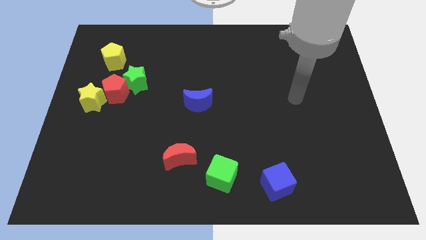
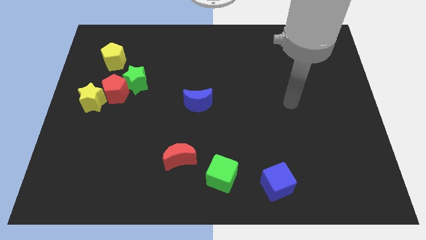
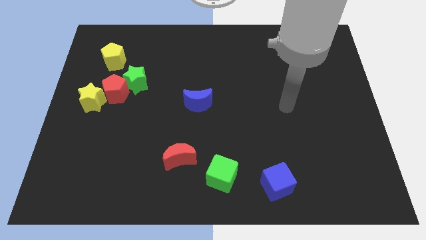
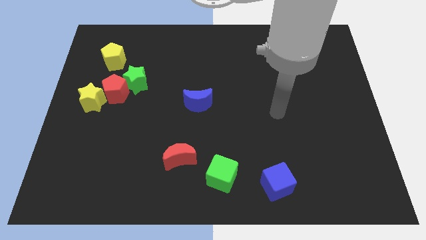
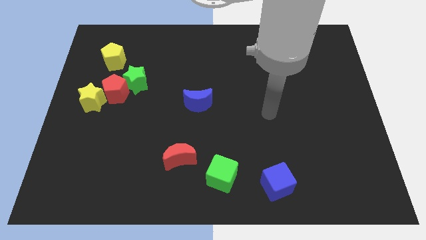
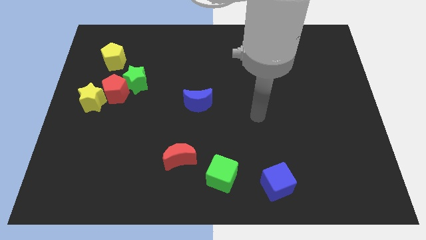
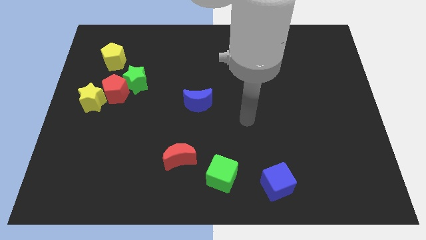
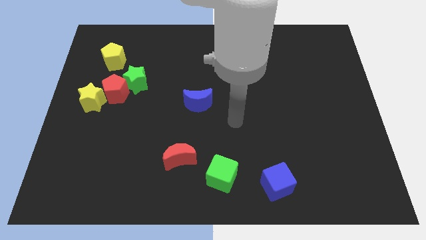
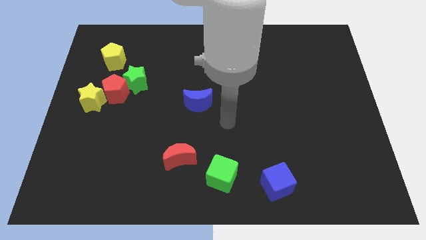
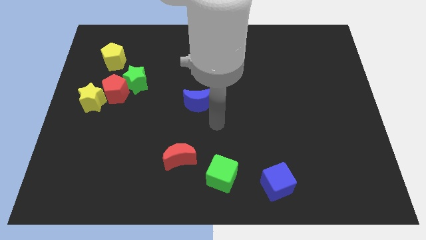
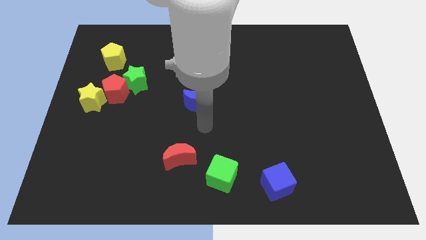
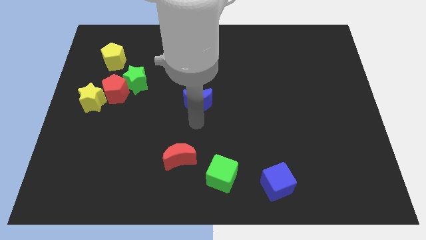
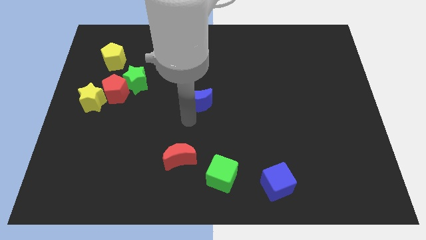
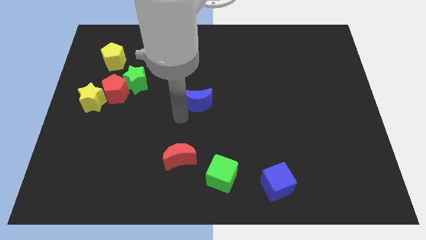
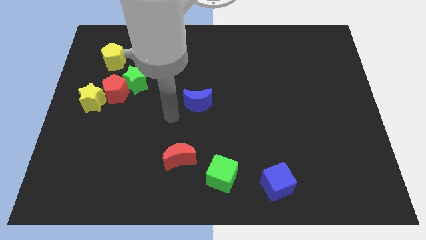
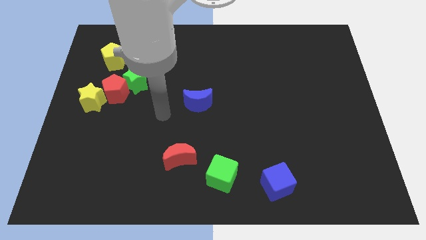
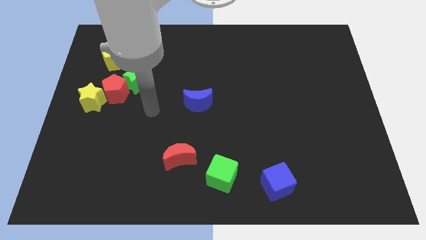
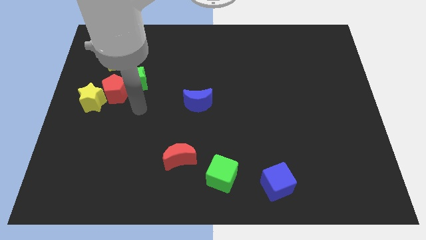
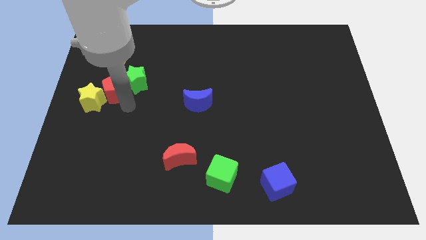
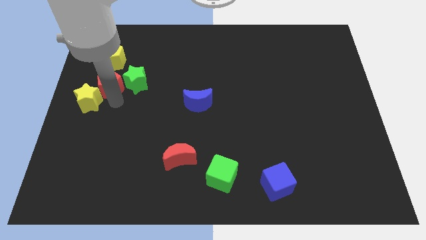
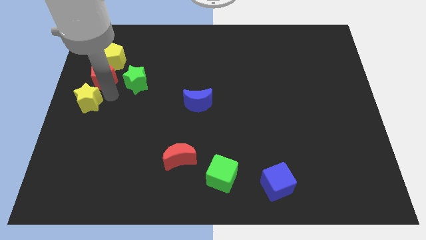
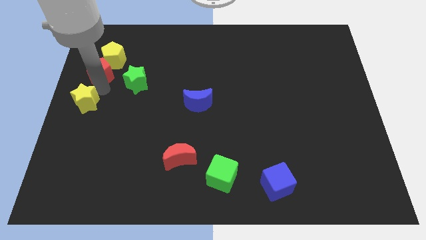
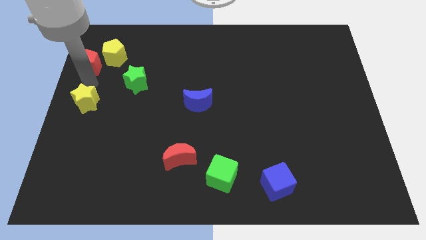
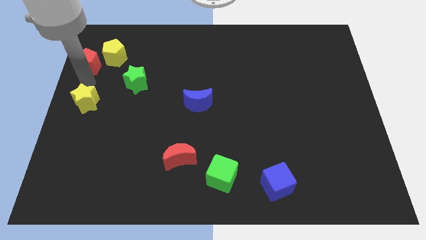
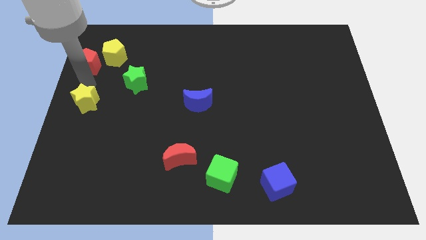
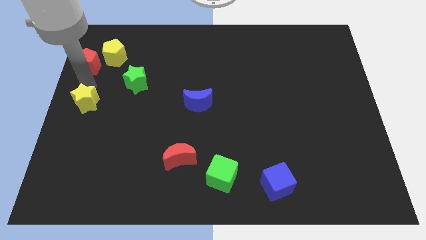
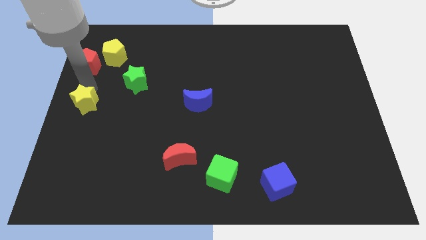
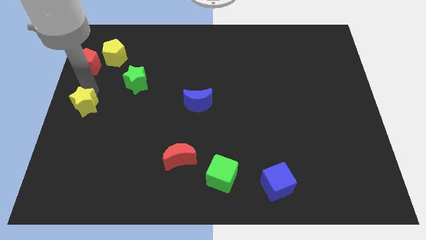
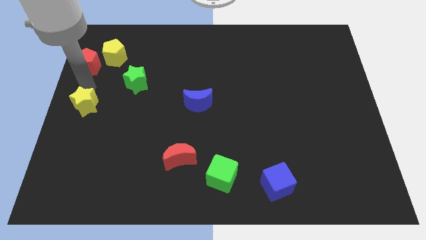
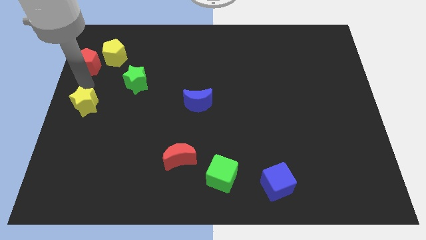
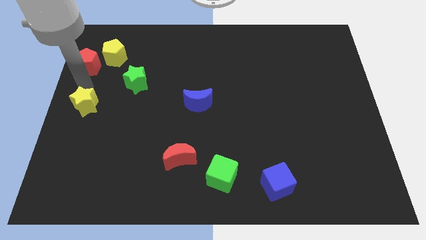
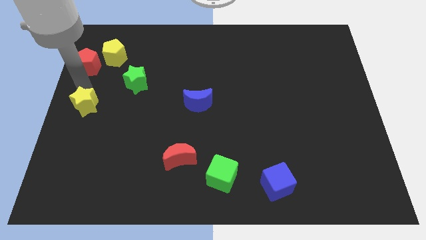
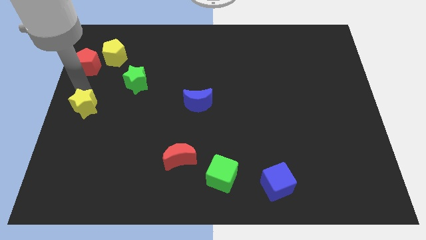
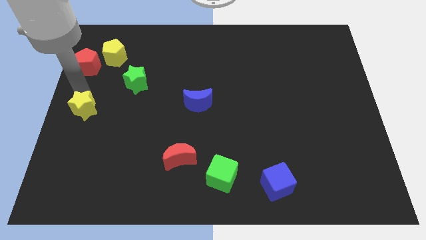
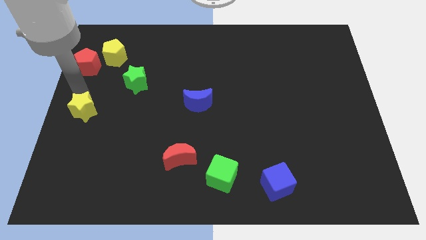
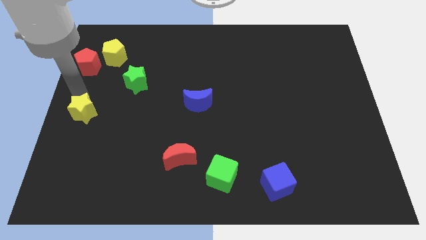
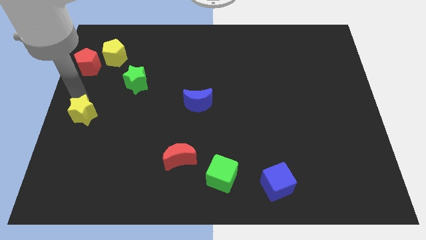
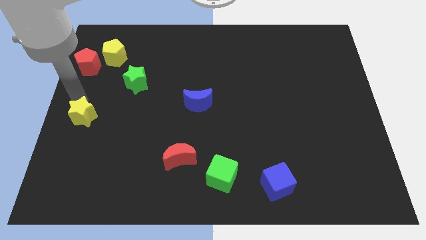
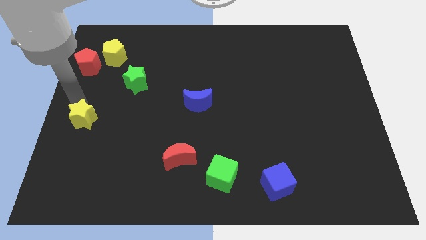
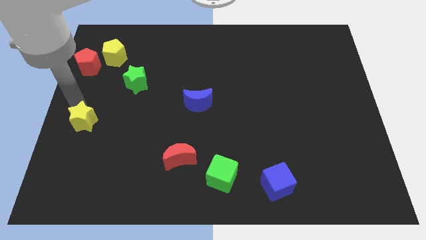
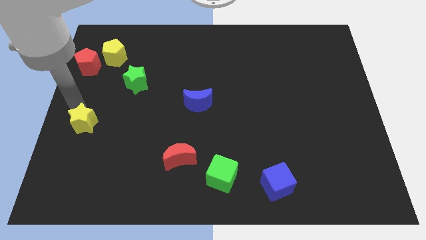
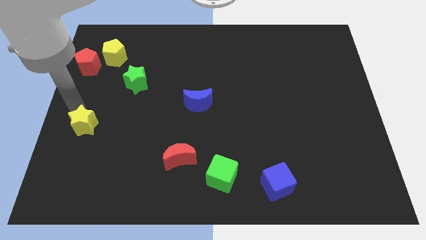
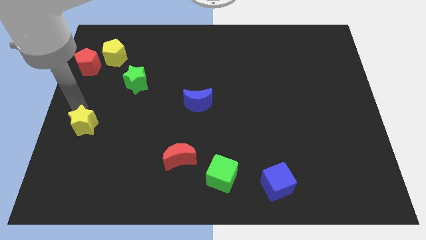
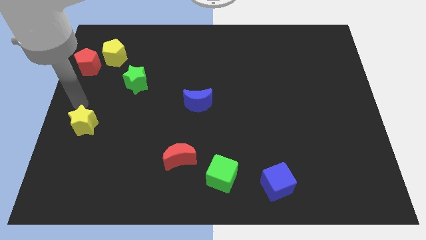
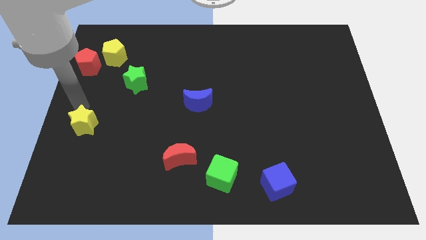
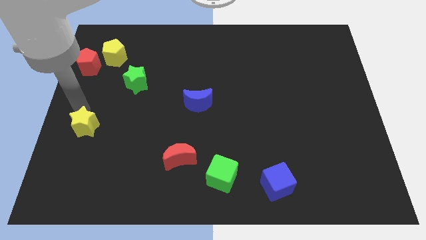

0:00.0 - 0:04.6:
slide the yellow star somewhat down

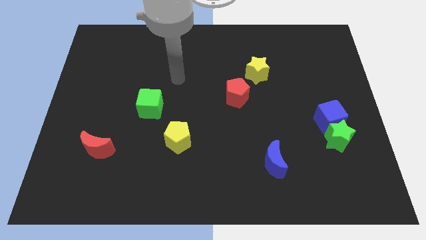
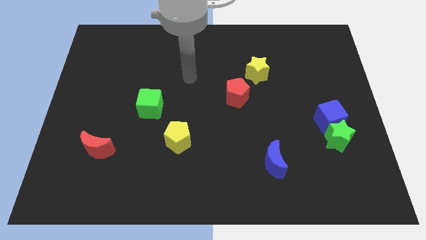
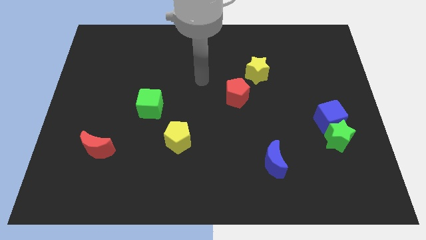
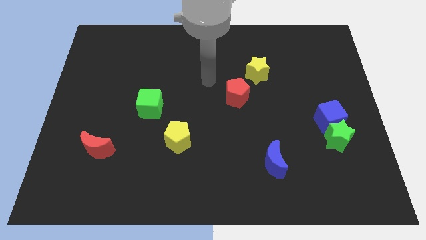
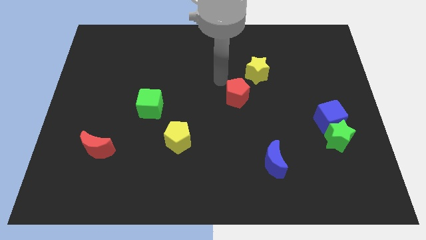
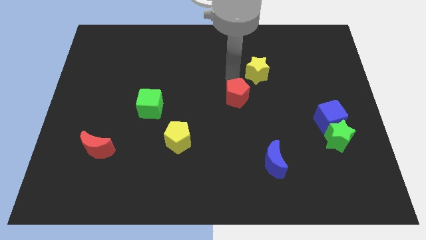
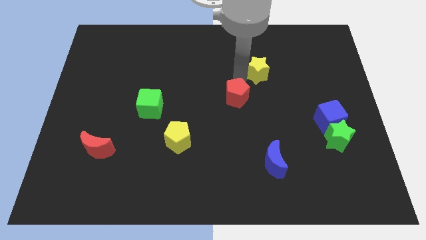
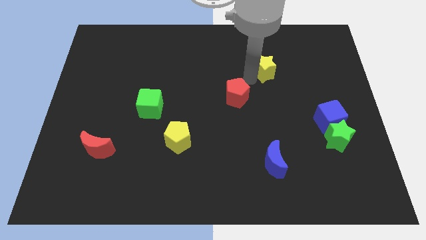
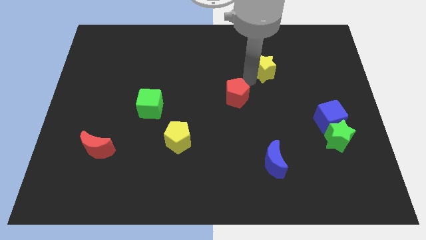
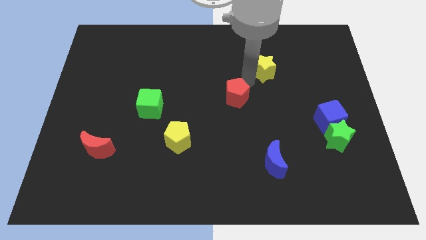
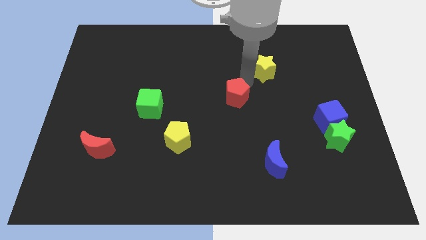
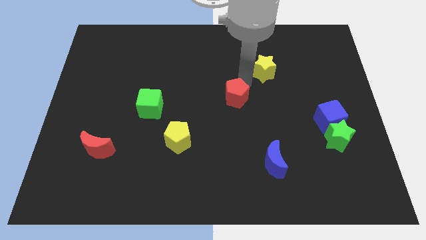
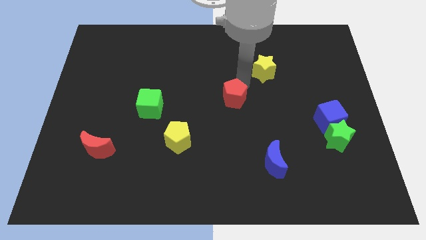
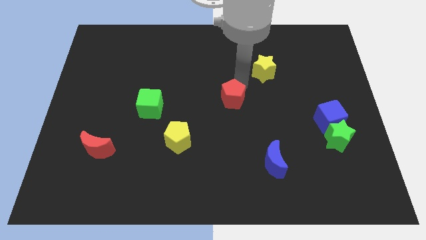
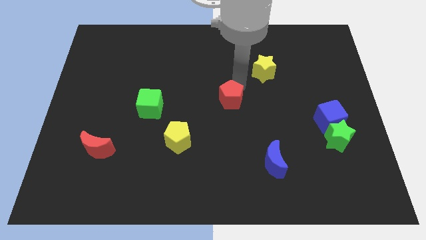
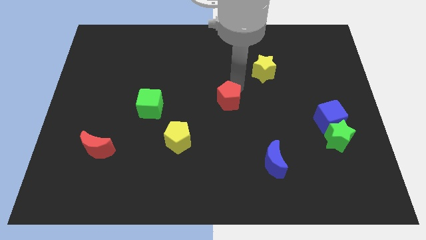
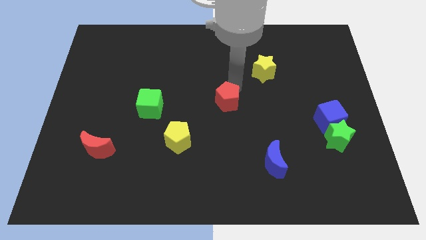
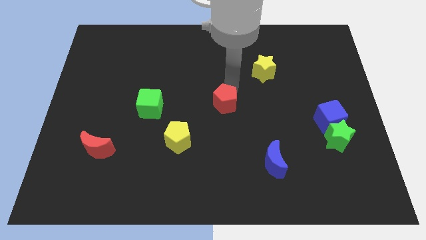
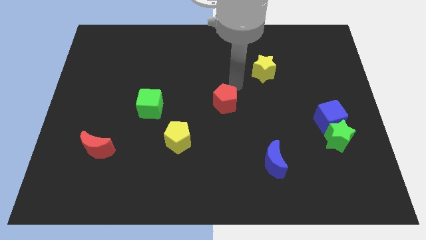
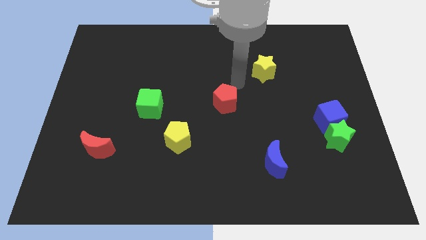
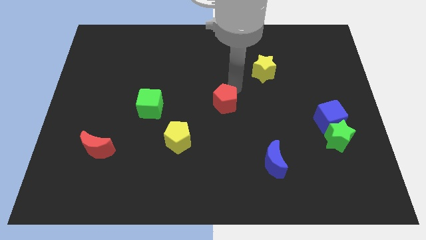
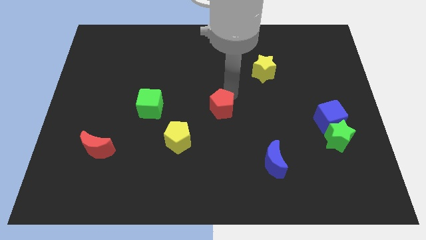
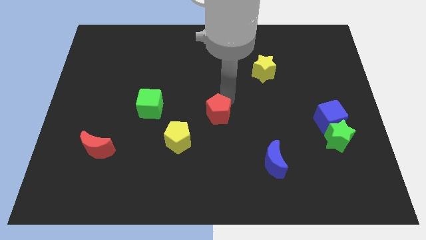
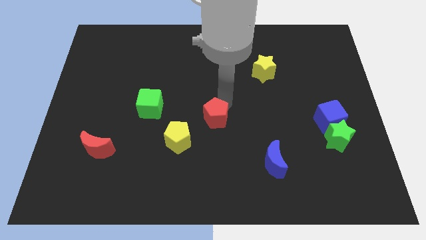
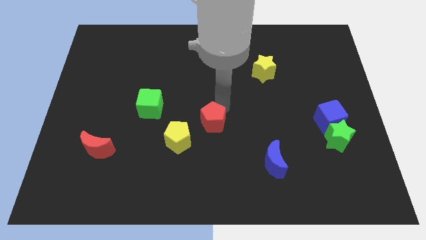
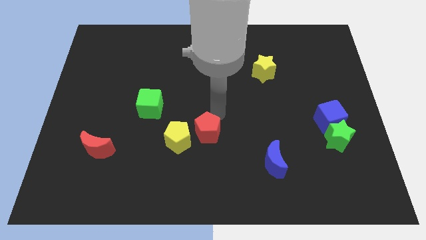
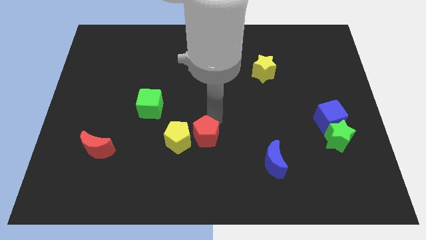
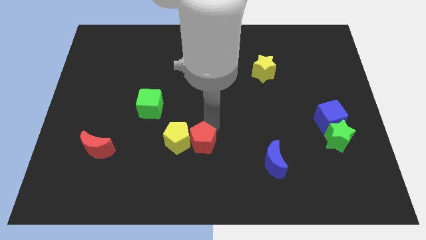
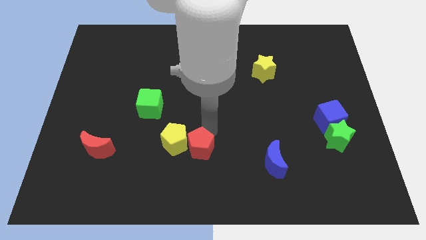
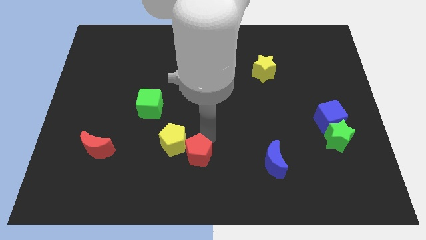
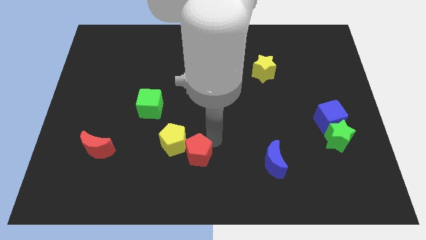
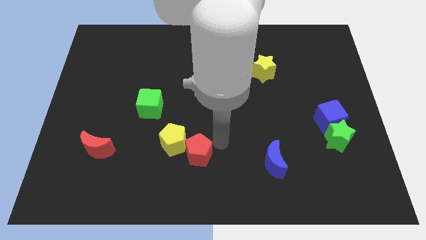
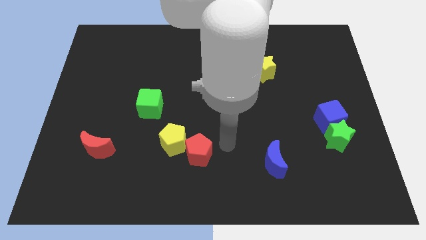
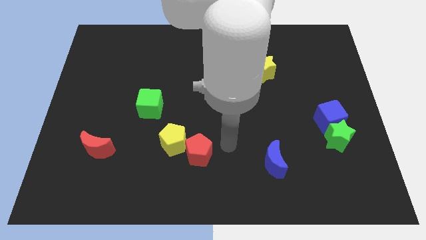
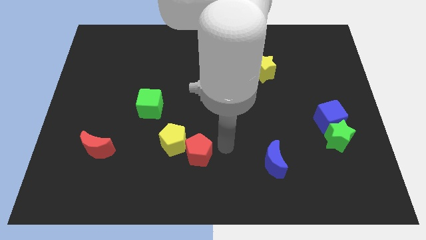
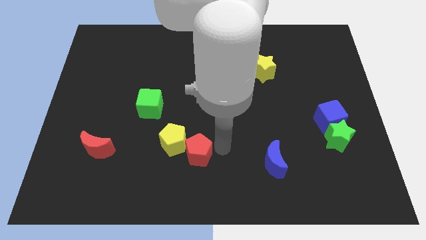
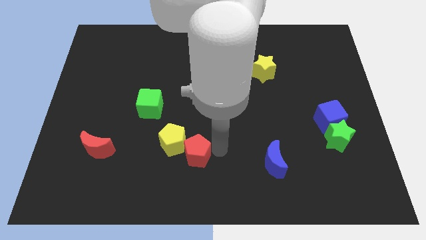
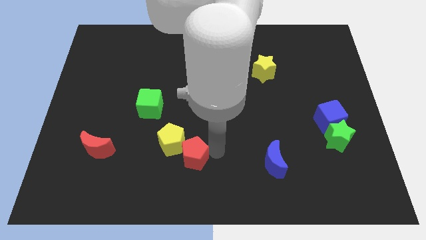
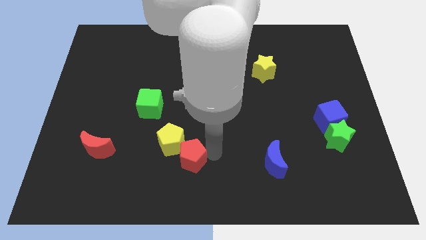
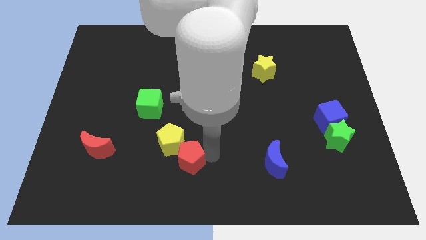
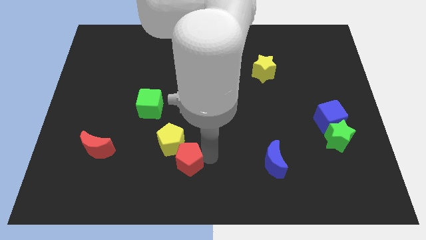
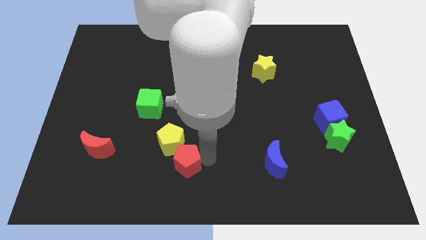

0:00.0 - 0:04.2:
push the red pentagon downwards and to the left diagonally
